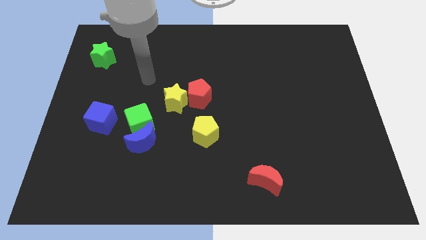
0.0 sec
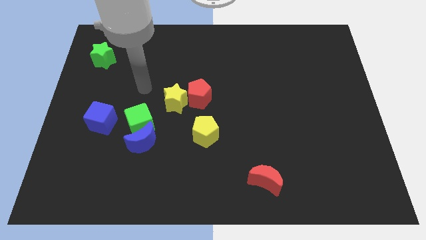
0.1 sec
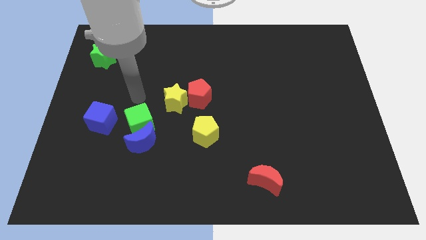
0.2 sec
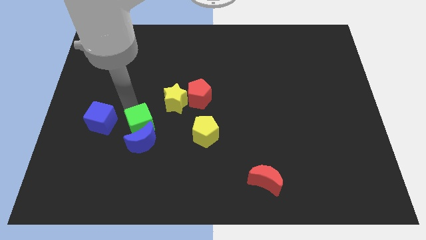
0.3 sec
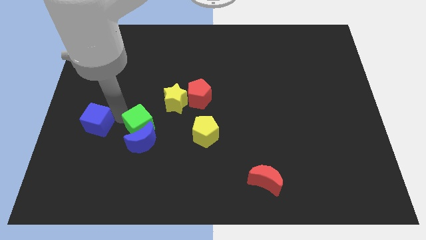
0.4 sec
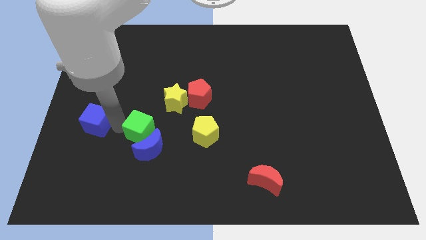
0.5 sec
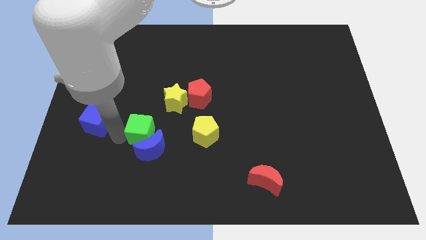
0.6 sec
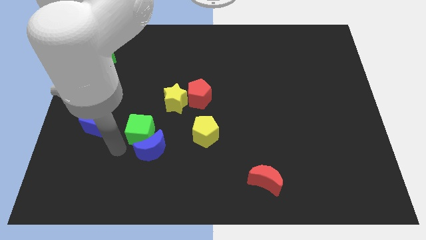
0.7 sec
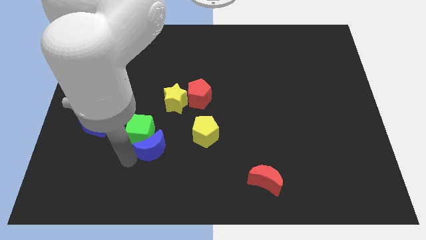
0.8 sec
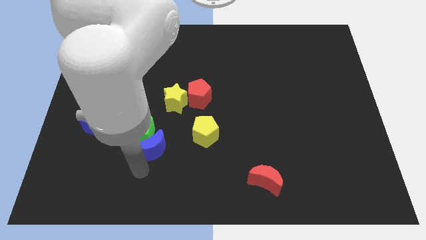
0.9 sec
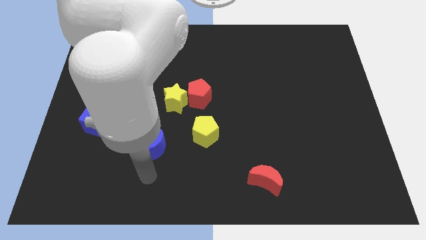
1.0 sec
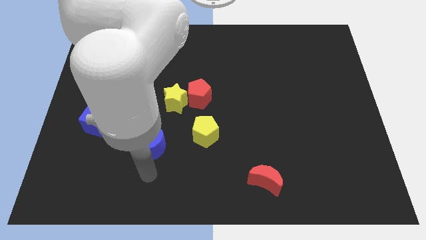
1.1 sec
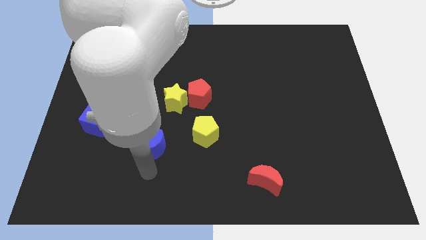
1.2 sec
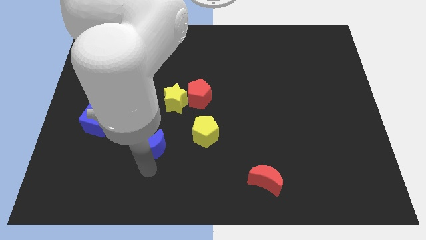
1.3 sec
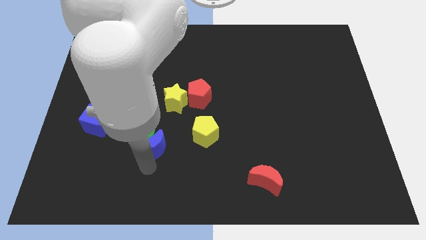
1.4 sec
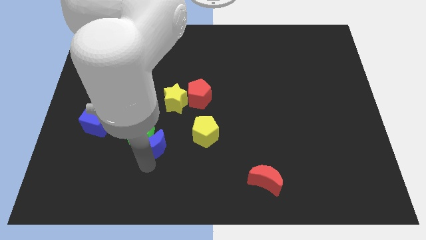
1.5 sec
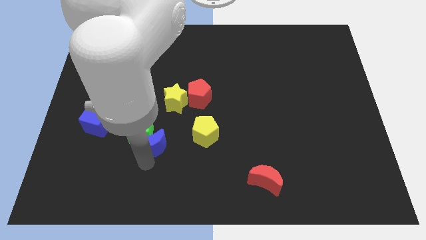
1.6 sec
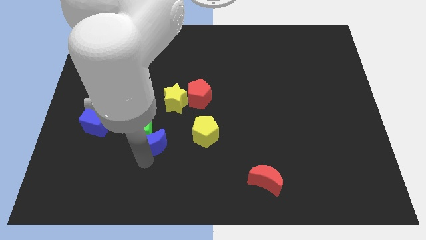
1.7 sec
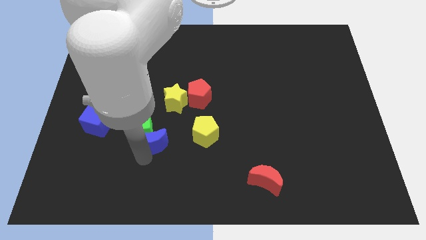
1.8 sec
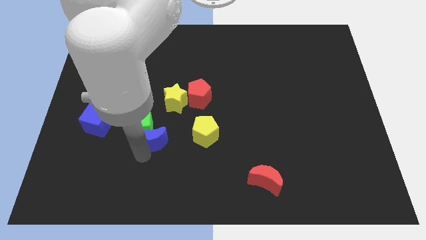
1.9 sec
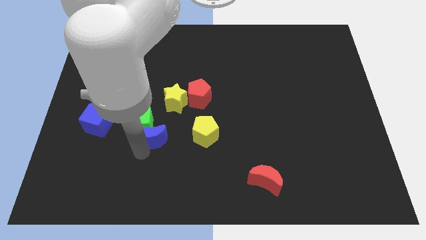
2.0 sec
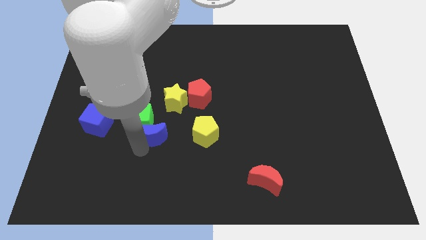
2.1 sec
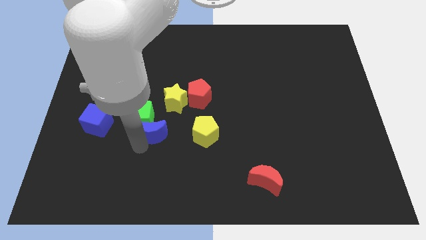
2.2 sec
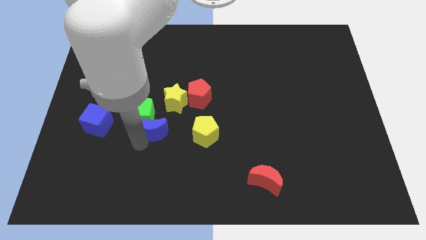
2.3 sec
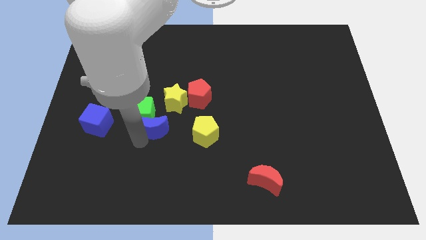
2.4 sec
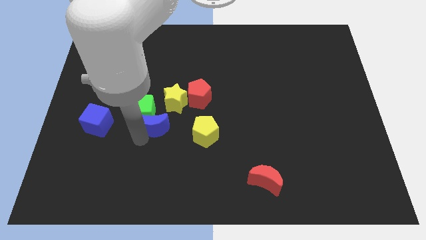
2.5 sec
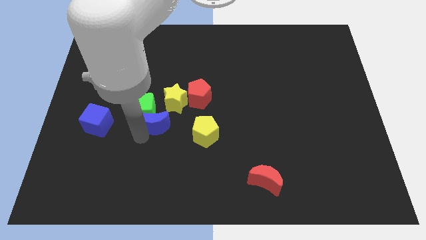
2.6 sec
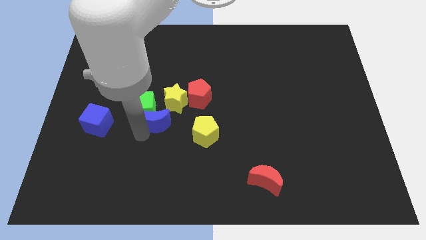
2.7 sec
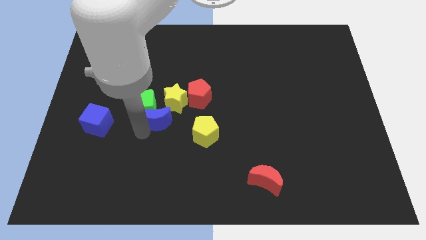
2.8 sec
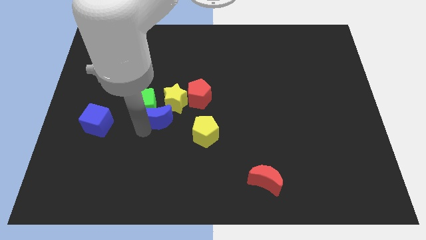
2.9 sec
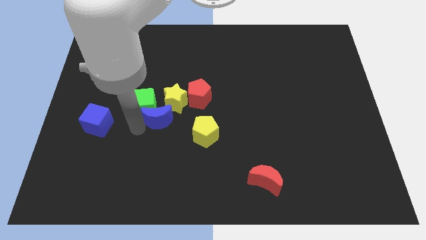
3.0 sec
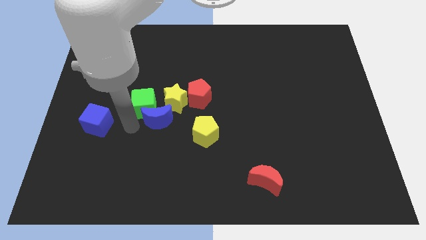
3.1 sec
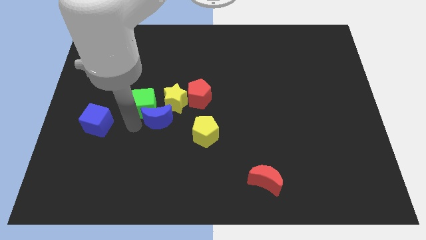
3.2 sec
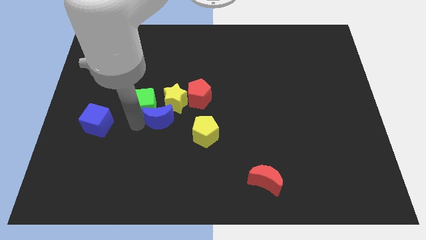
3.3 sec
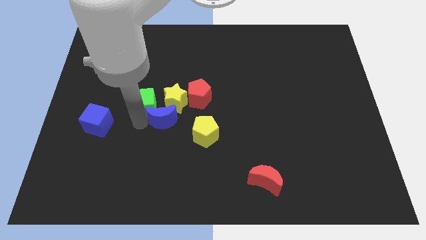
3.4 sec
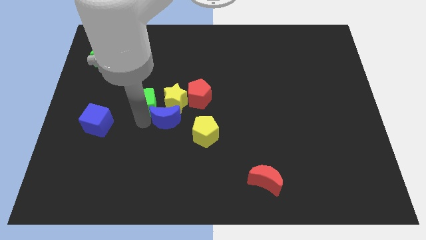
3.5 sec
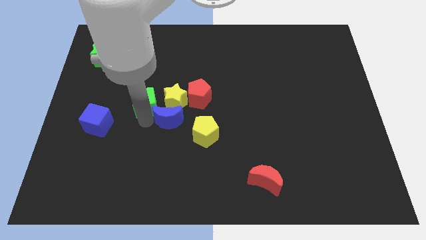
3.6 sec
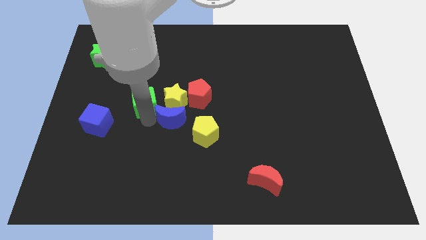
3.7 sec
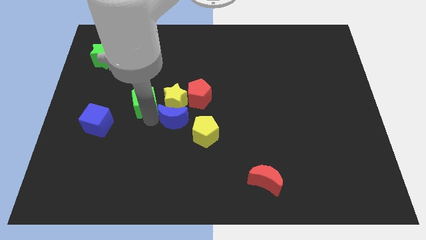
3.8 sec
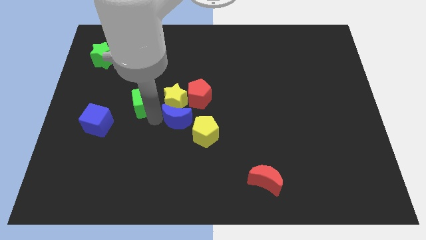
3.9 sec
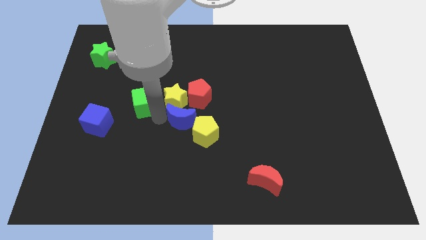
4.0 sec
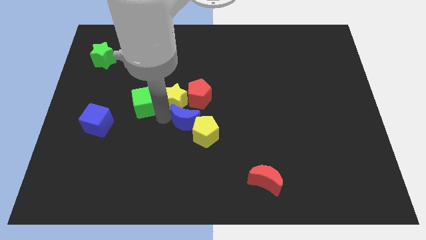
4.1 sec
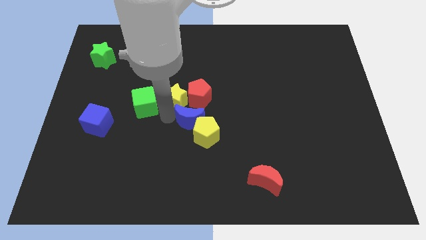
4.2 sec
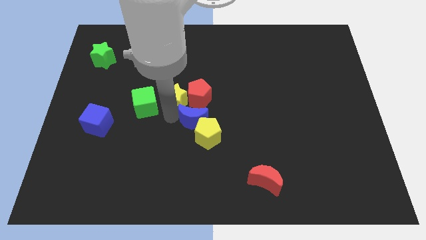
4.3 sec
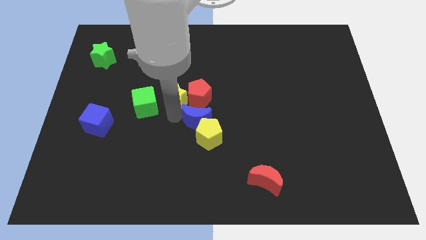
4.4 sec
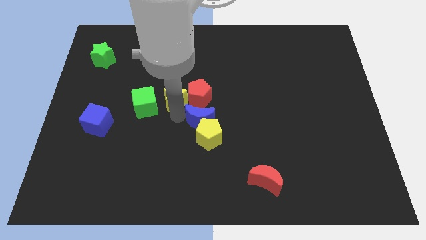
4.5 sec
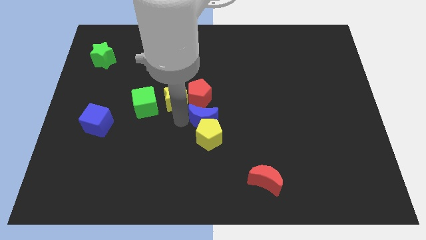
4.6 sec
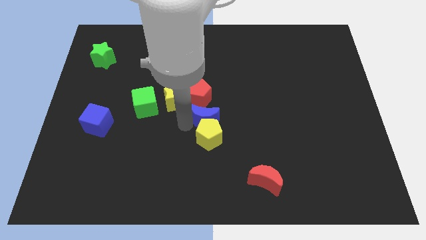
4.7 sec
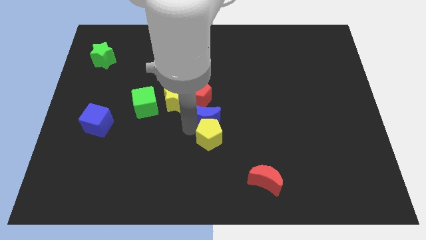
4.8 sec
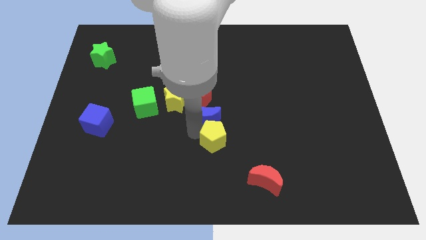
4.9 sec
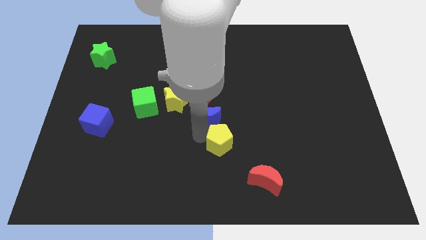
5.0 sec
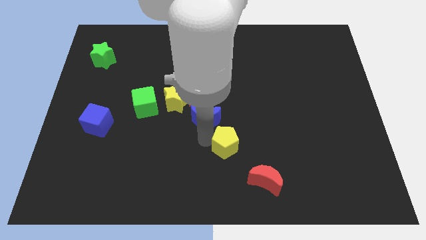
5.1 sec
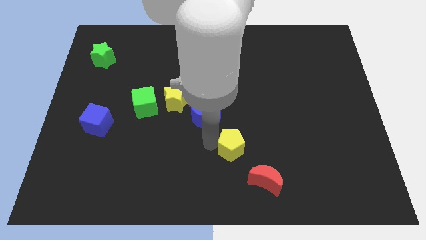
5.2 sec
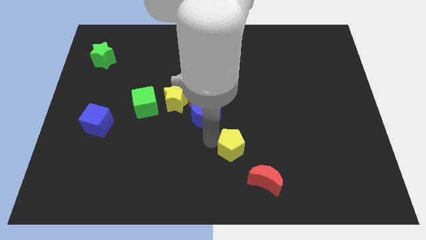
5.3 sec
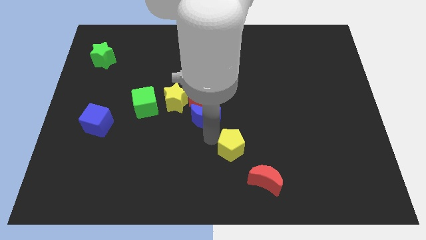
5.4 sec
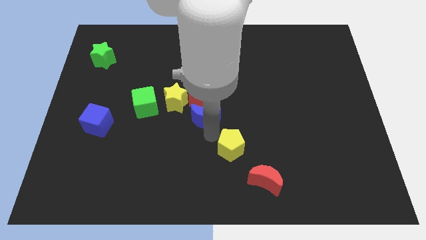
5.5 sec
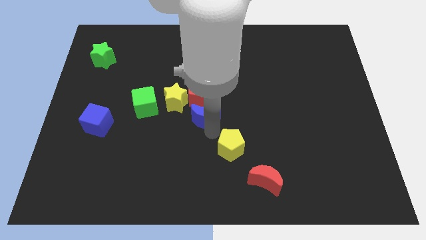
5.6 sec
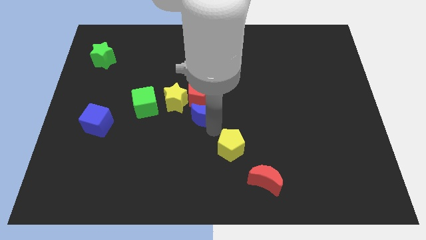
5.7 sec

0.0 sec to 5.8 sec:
push the blue moon towards the red pentagon
